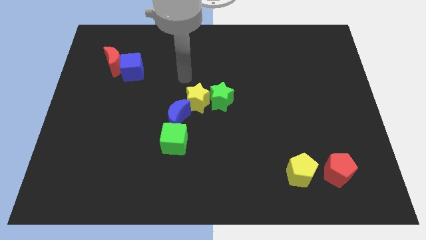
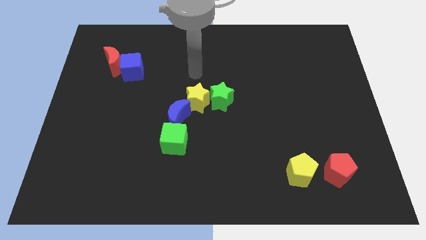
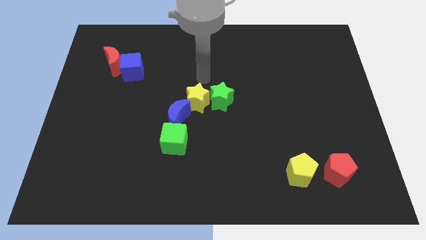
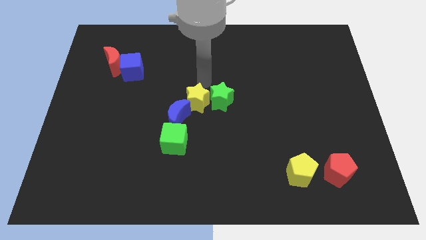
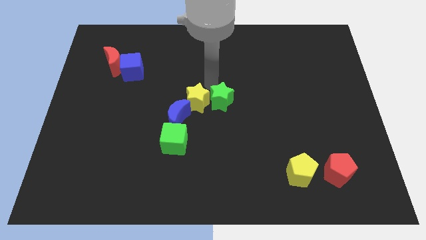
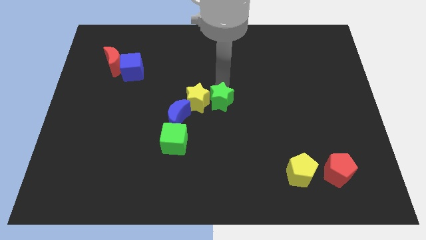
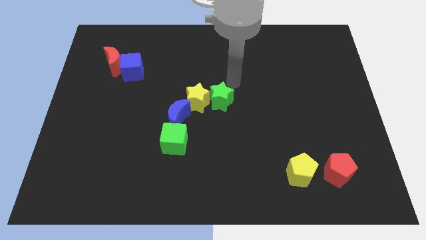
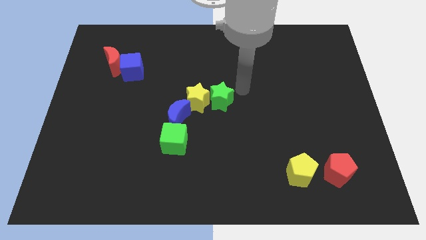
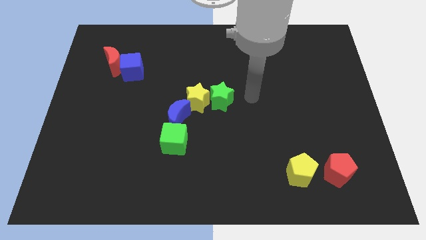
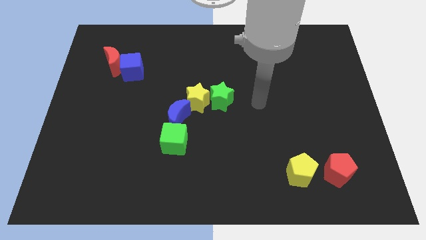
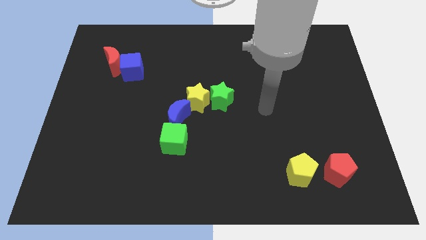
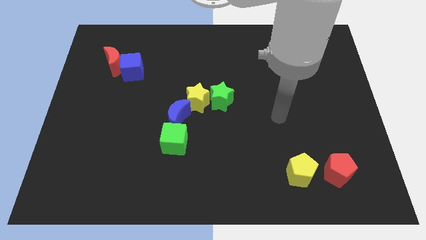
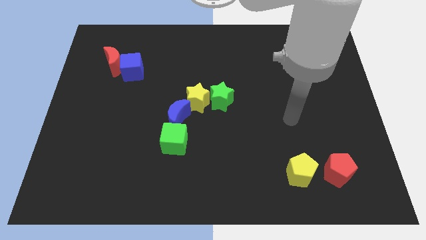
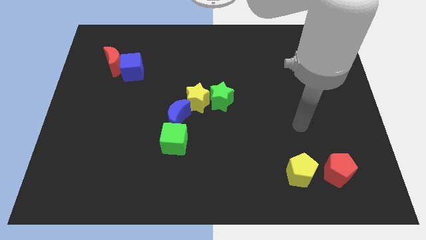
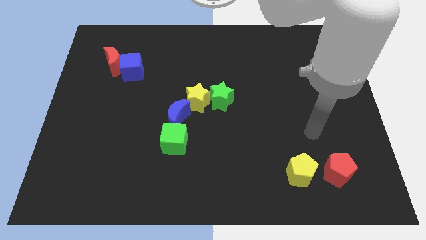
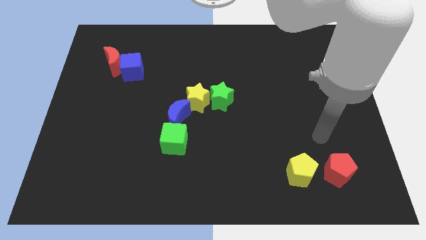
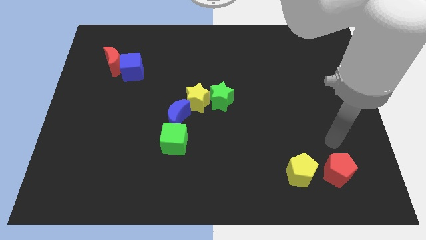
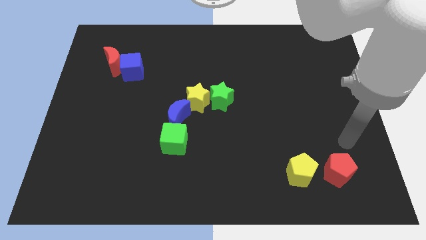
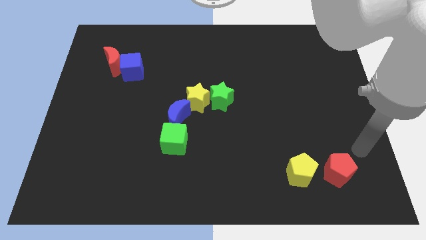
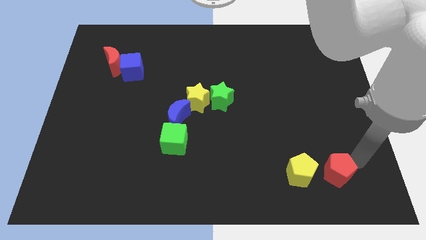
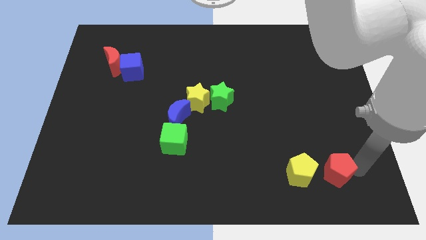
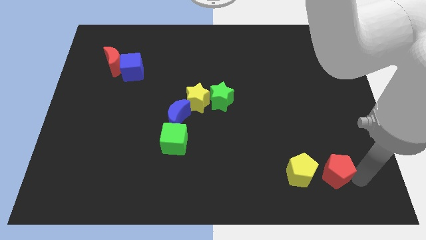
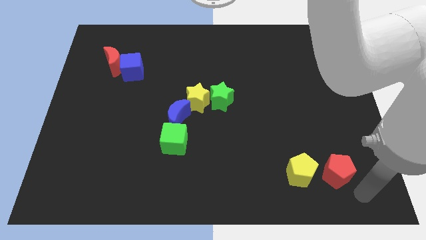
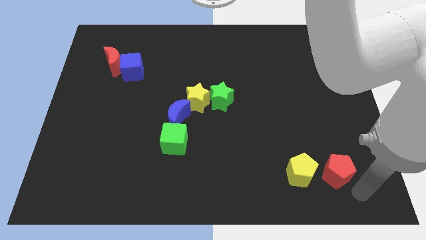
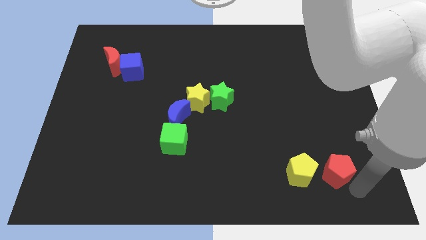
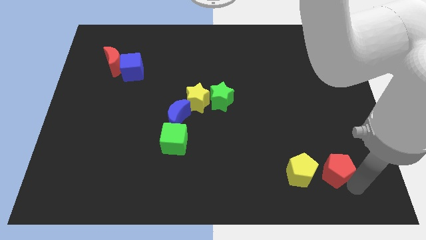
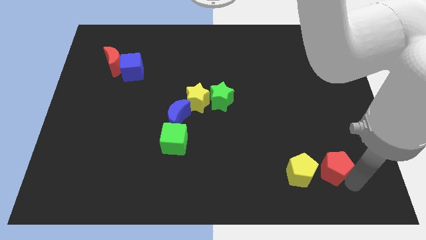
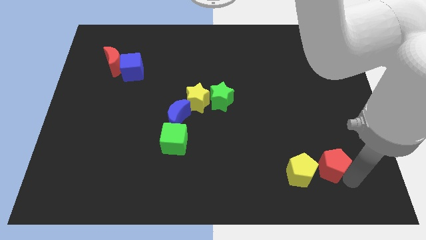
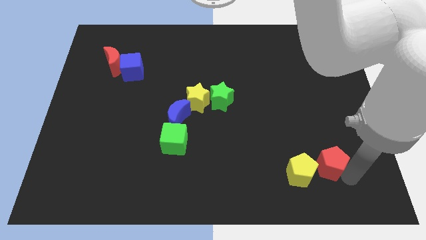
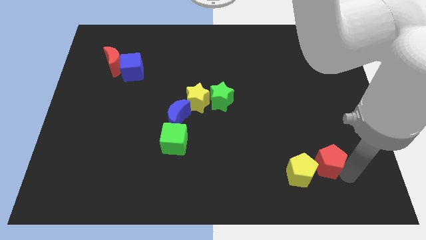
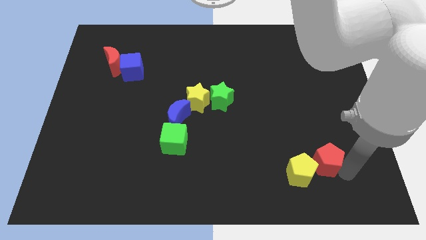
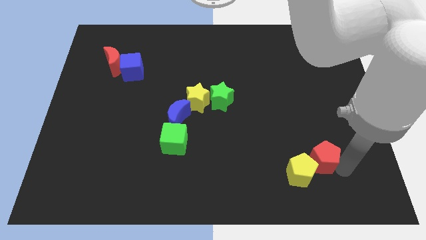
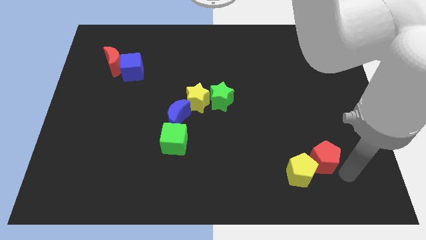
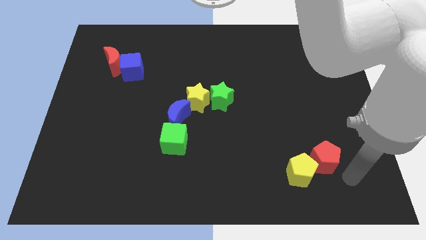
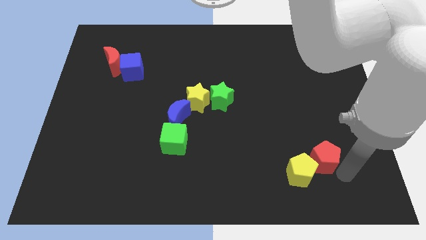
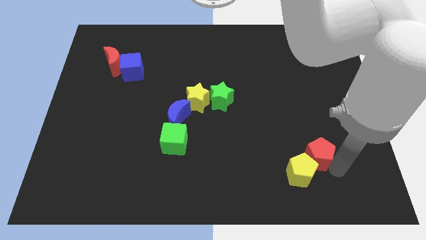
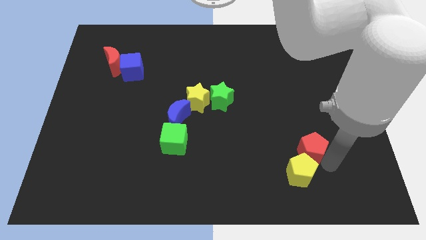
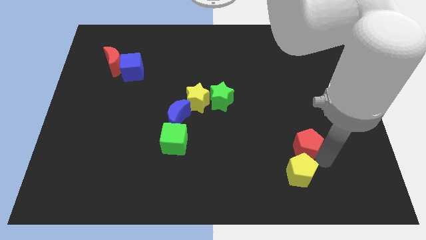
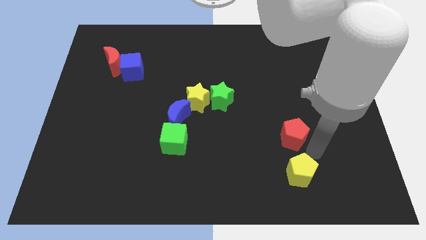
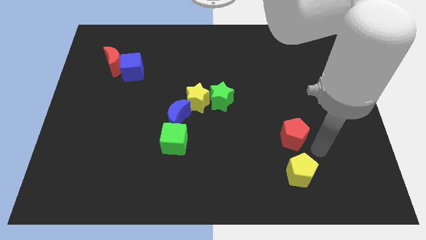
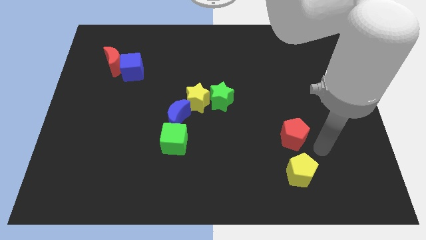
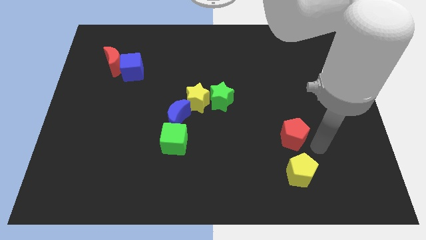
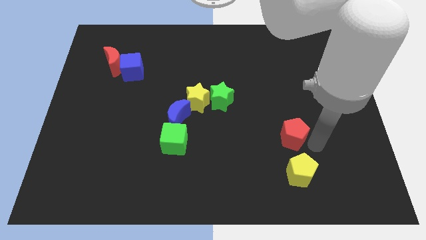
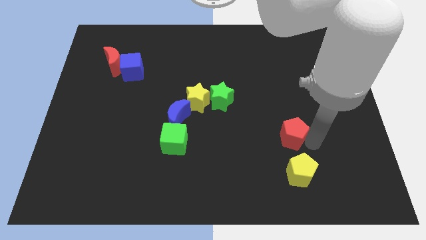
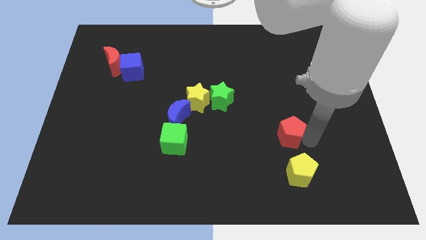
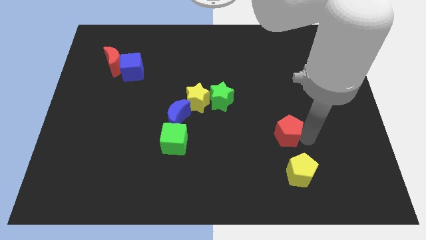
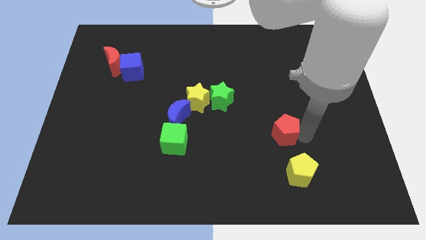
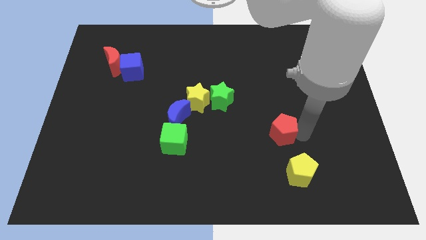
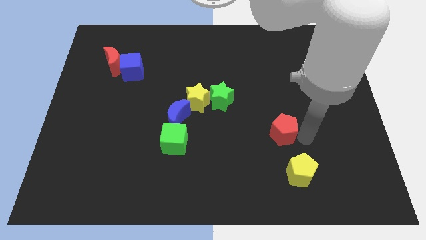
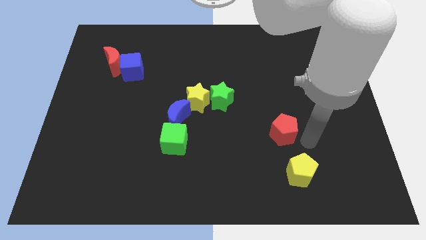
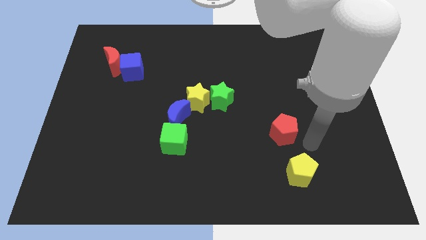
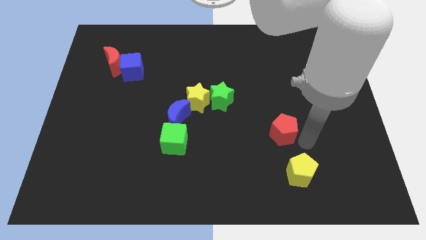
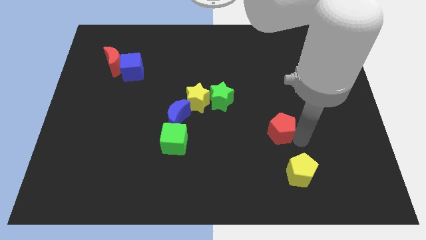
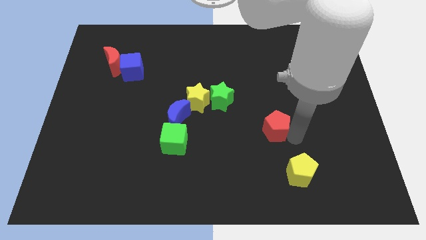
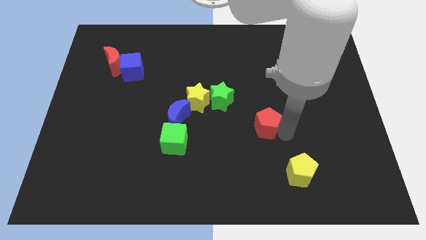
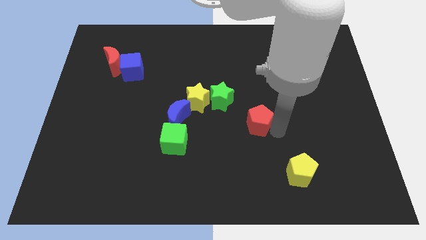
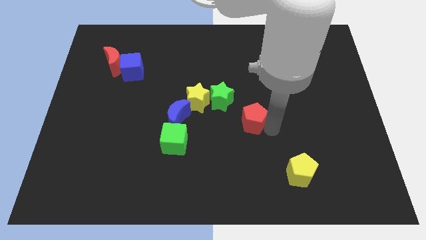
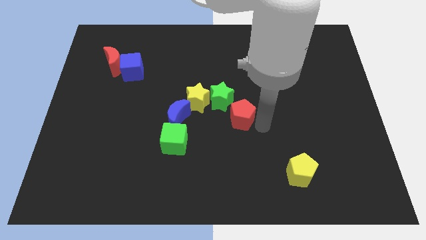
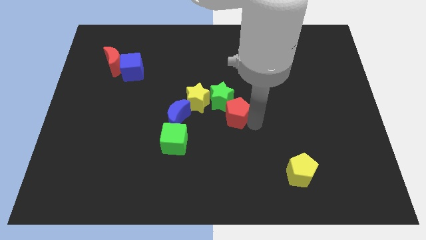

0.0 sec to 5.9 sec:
move the red pentagon to the green star

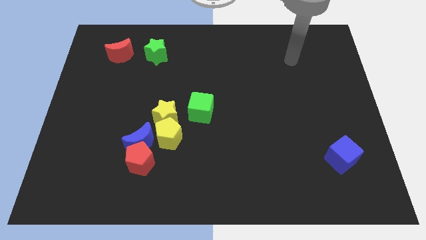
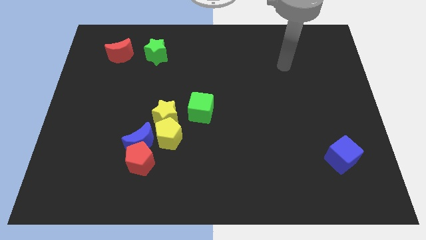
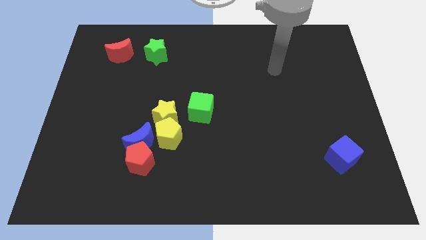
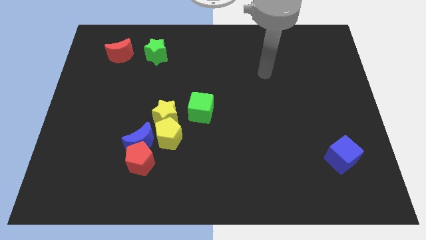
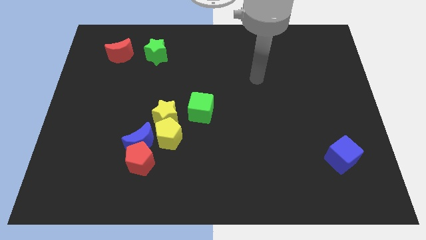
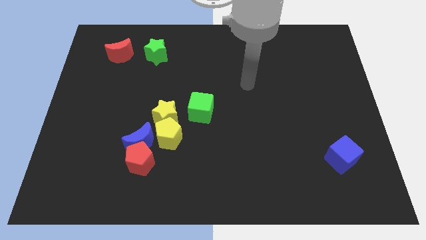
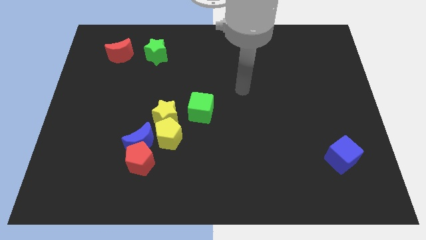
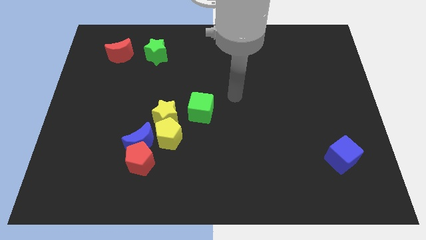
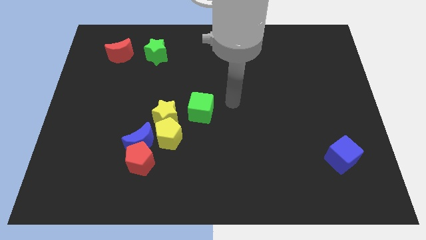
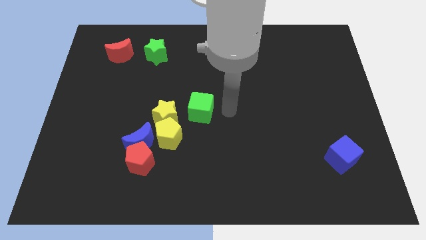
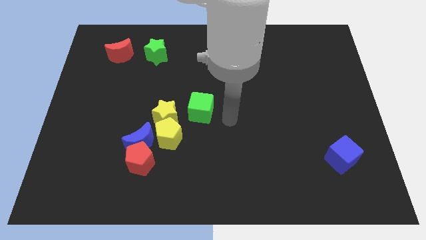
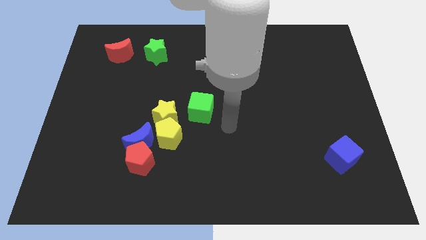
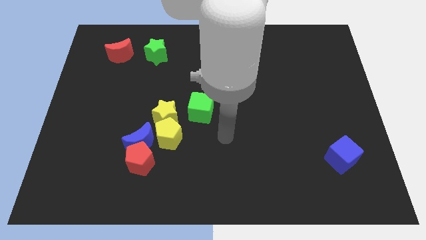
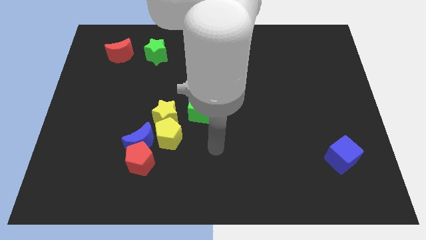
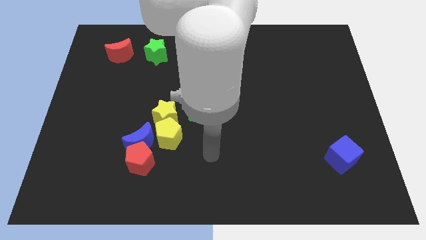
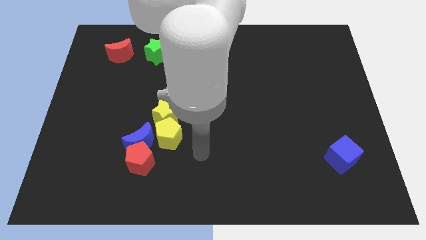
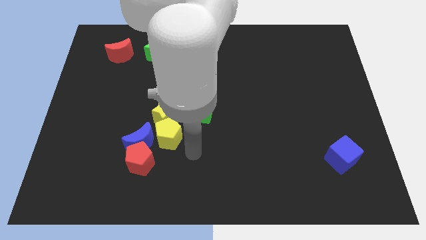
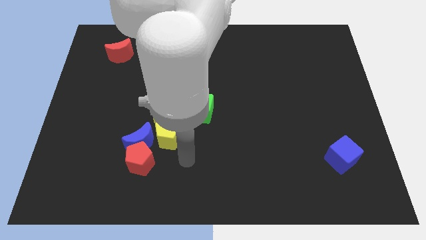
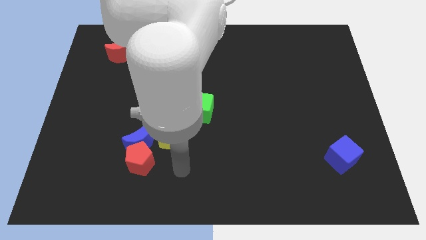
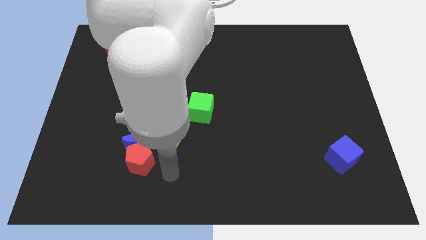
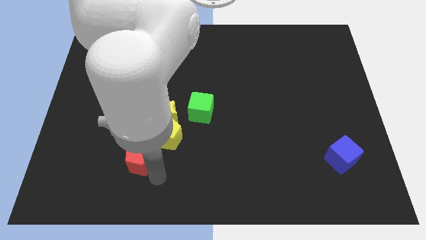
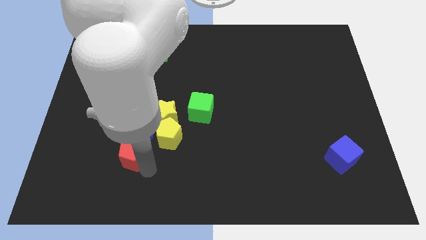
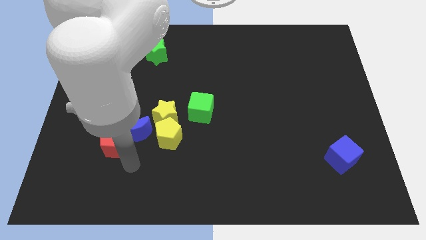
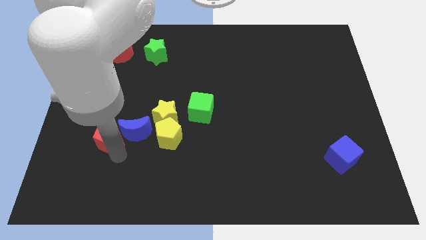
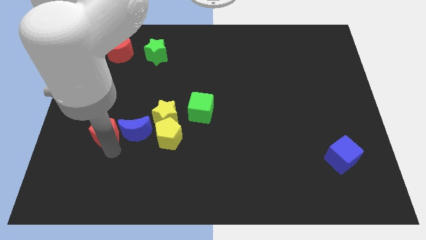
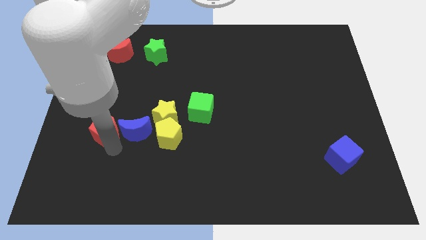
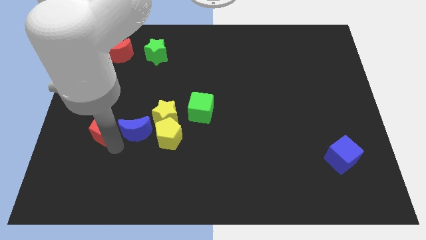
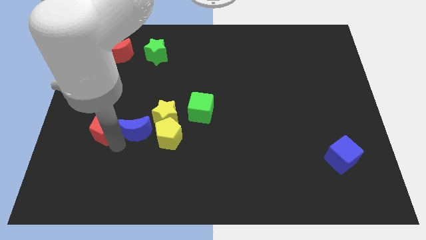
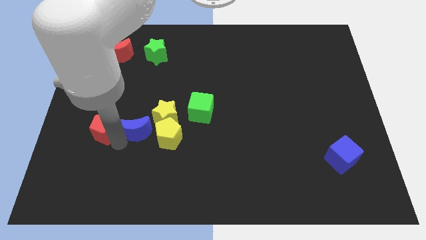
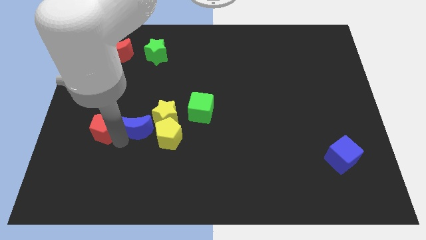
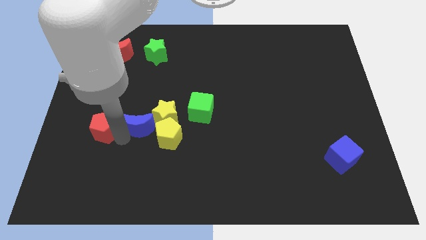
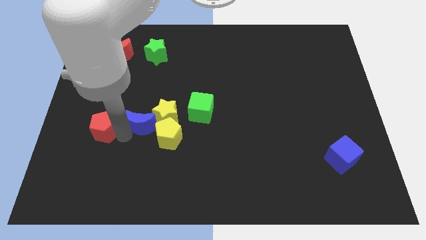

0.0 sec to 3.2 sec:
push the blue moon close to the yellow star
